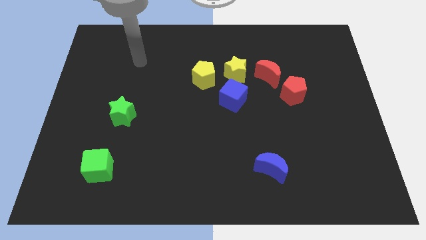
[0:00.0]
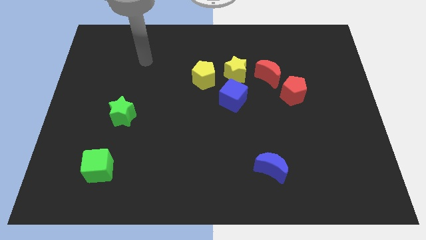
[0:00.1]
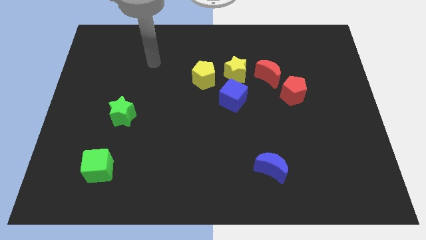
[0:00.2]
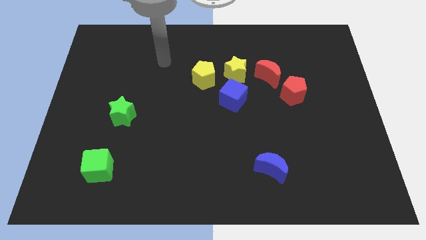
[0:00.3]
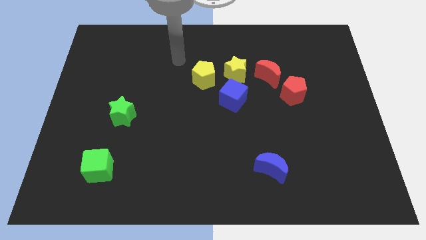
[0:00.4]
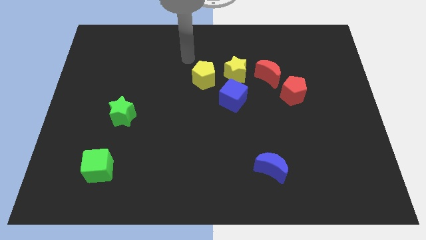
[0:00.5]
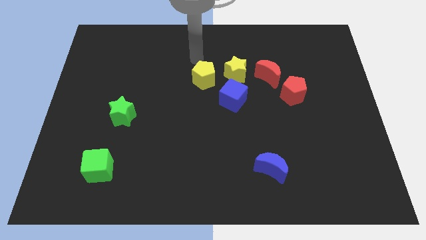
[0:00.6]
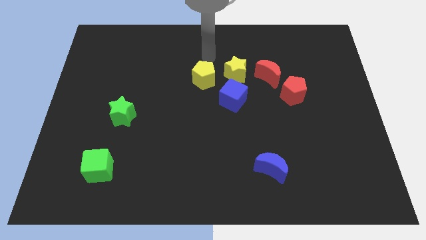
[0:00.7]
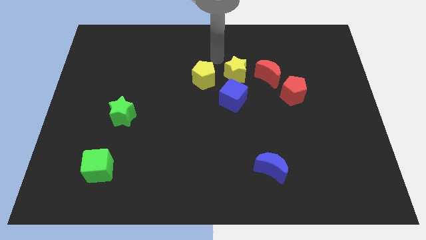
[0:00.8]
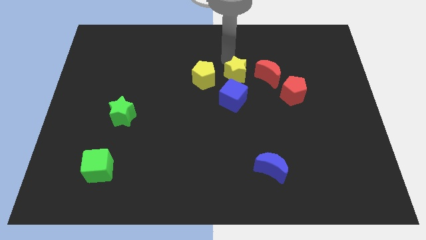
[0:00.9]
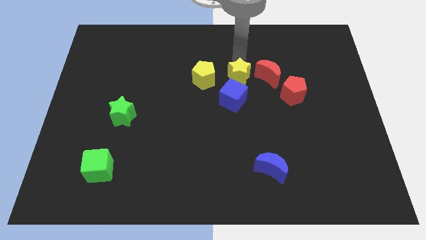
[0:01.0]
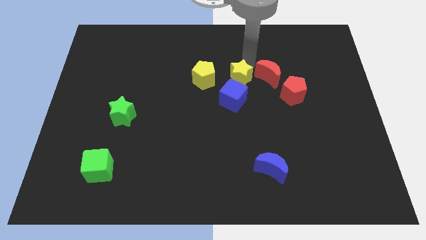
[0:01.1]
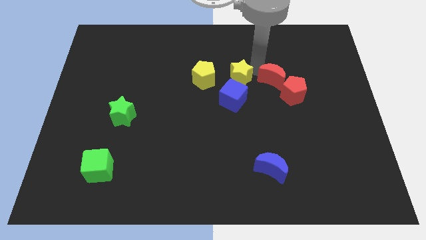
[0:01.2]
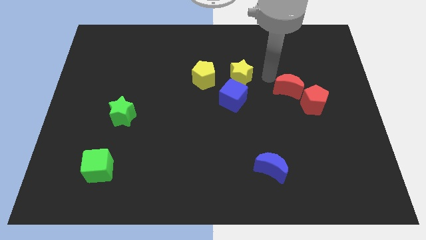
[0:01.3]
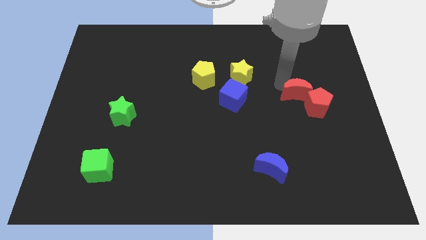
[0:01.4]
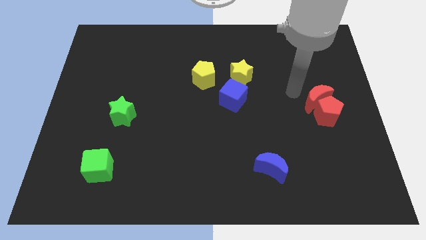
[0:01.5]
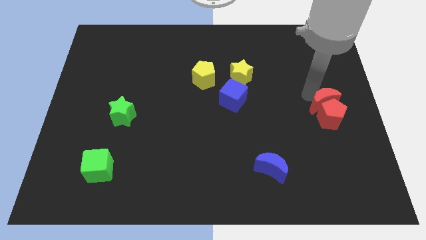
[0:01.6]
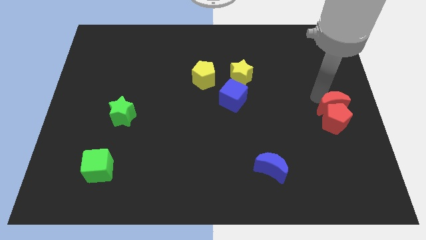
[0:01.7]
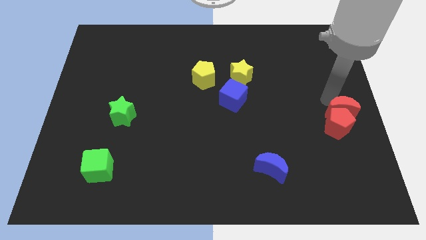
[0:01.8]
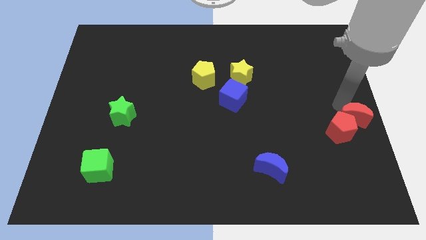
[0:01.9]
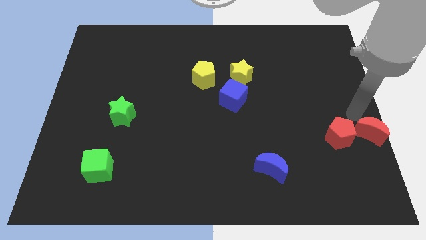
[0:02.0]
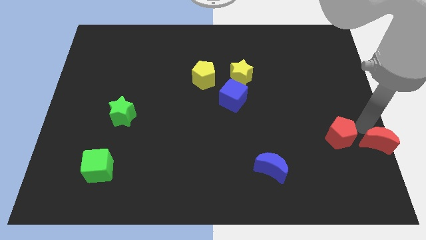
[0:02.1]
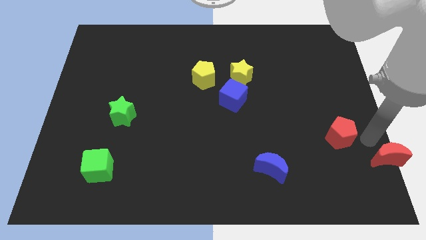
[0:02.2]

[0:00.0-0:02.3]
pull the red pentagon apart from the red moon

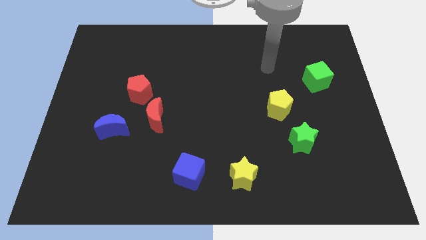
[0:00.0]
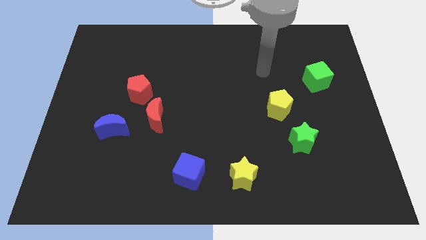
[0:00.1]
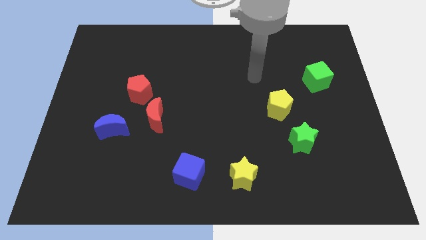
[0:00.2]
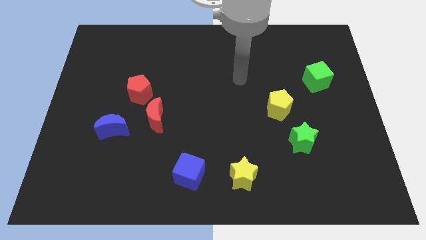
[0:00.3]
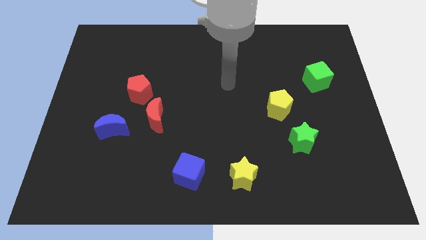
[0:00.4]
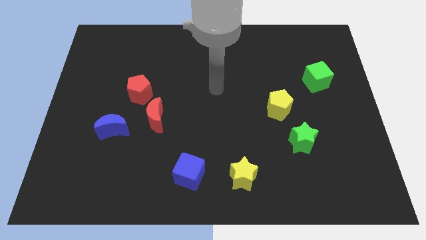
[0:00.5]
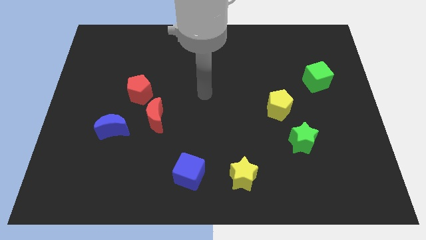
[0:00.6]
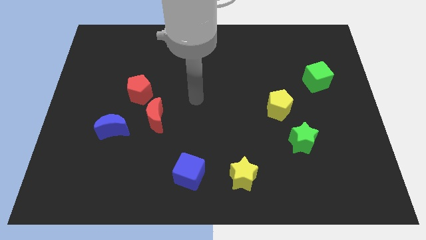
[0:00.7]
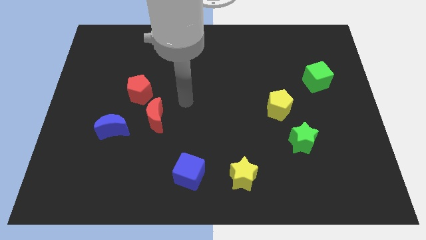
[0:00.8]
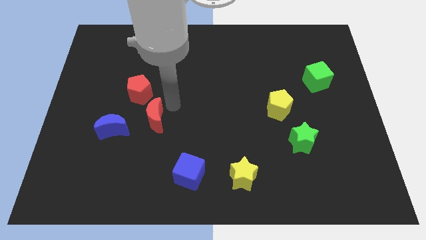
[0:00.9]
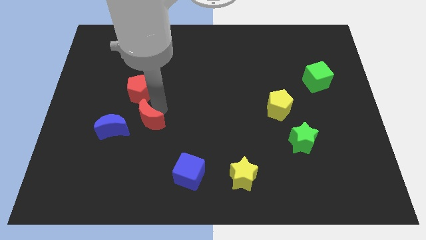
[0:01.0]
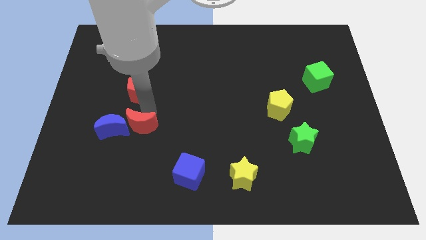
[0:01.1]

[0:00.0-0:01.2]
separate the red pentagon from the red moon

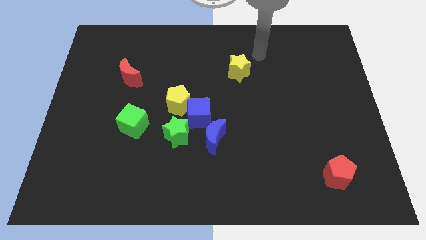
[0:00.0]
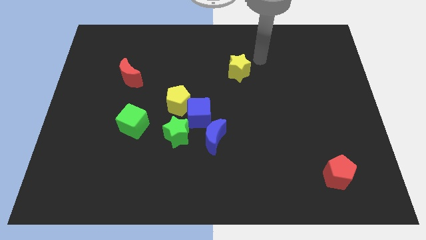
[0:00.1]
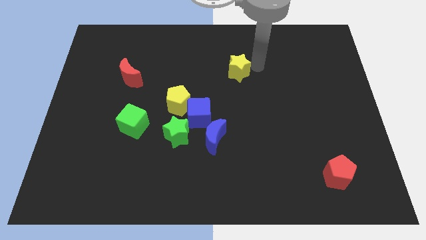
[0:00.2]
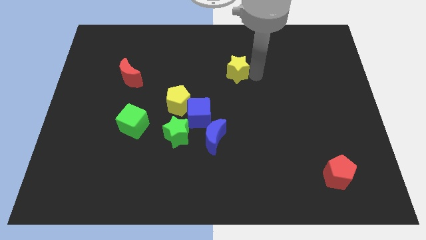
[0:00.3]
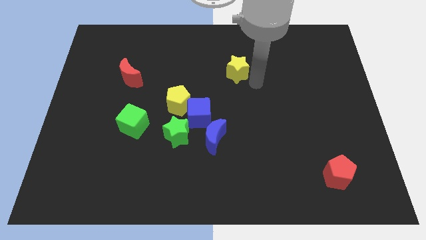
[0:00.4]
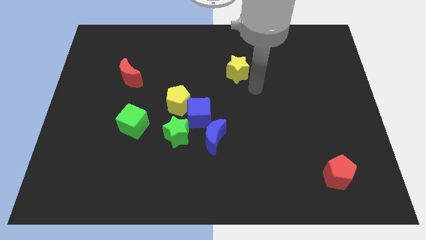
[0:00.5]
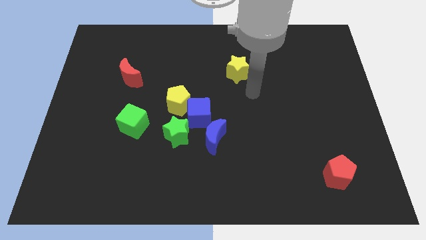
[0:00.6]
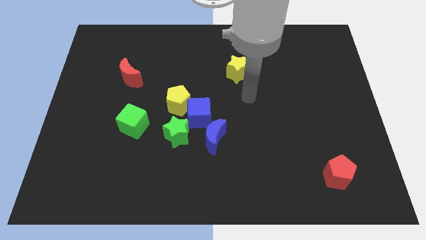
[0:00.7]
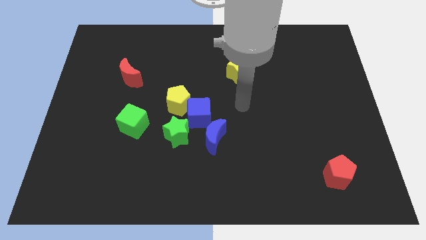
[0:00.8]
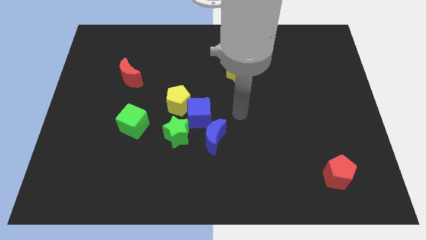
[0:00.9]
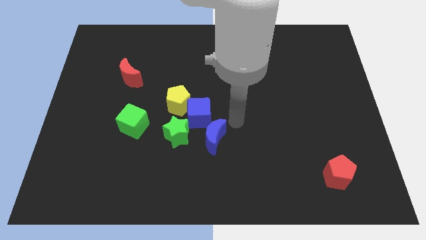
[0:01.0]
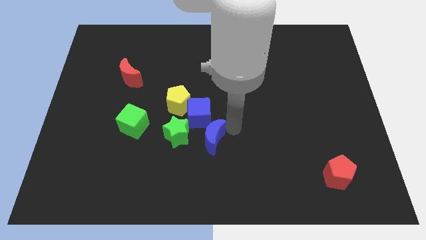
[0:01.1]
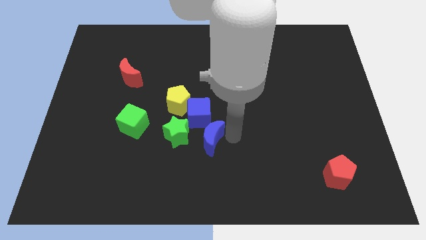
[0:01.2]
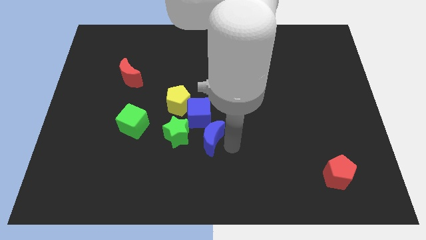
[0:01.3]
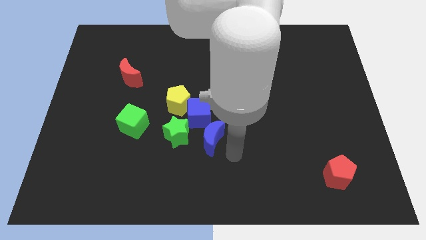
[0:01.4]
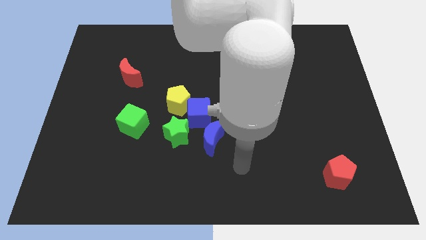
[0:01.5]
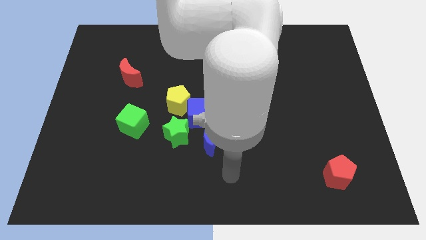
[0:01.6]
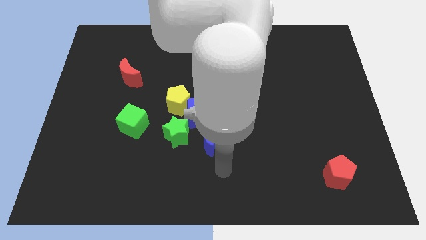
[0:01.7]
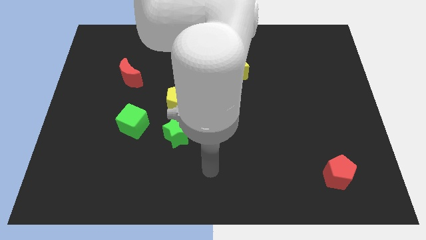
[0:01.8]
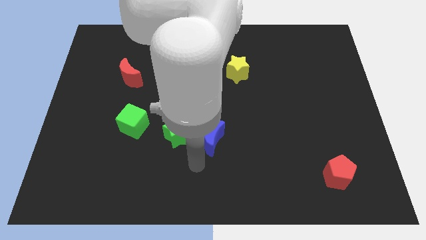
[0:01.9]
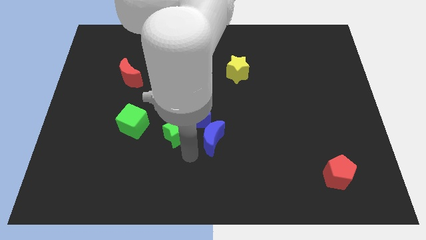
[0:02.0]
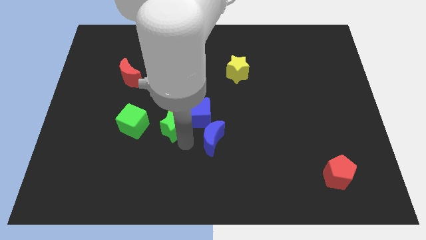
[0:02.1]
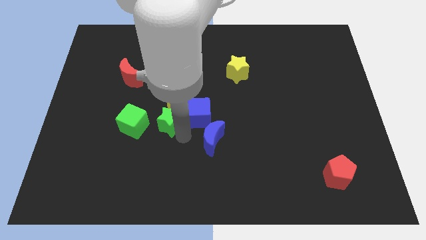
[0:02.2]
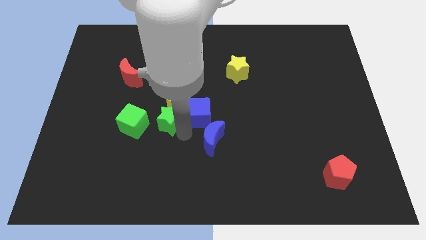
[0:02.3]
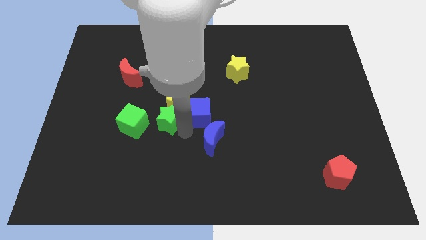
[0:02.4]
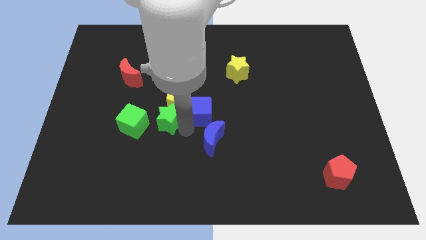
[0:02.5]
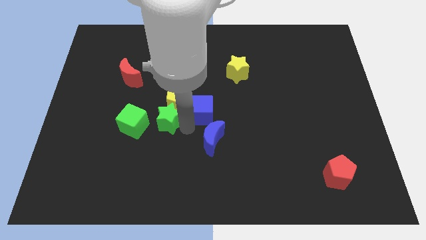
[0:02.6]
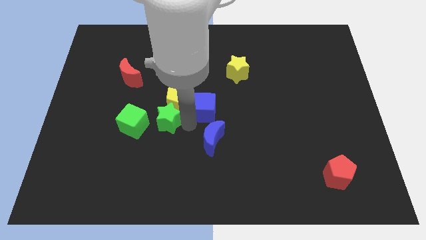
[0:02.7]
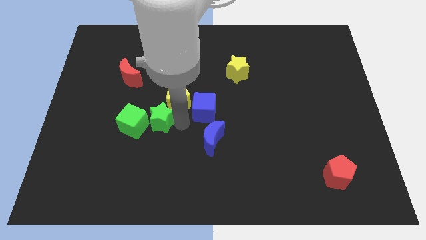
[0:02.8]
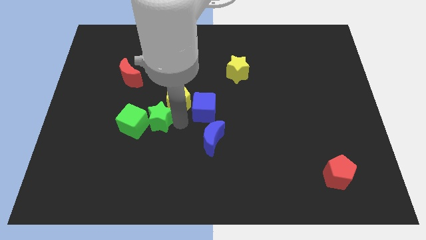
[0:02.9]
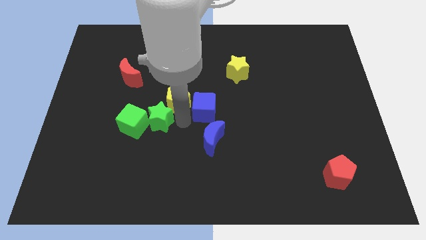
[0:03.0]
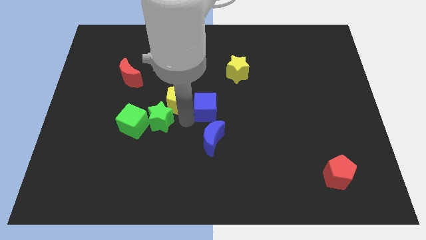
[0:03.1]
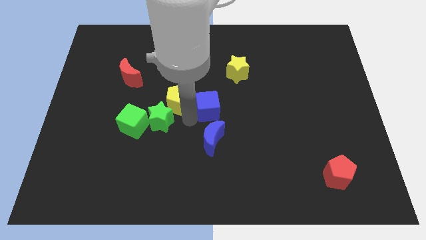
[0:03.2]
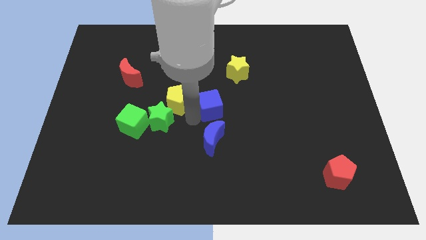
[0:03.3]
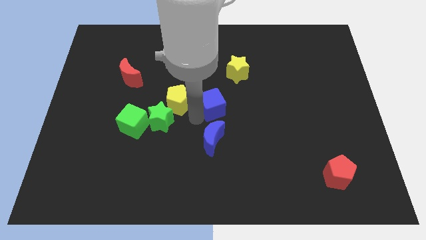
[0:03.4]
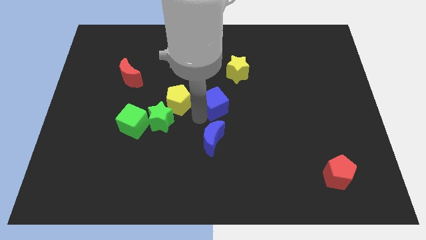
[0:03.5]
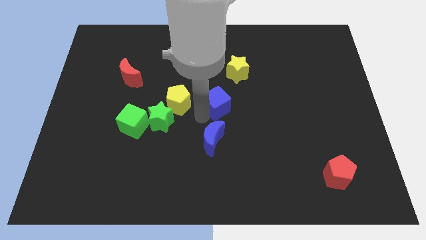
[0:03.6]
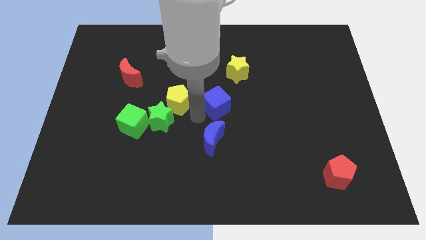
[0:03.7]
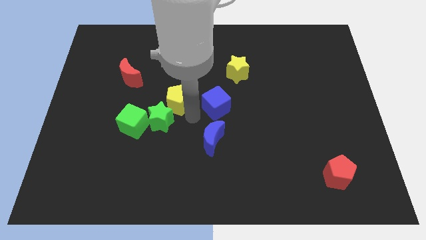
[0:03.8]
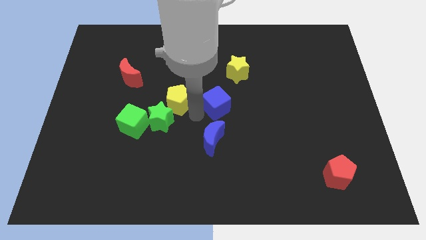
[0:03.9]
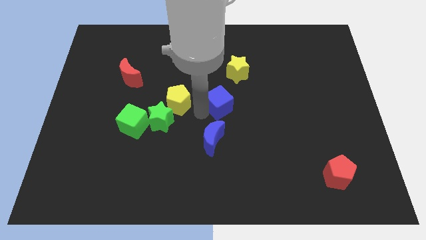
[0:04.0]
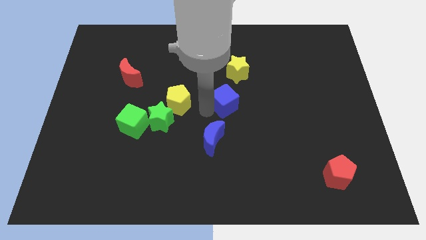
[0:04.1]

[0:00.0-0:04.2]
pull the blue cube apart from the group

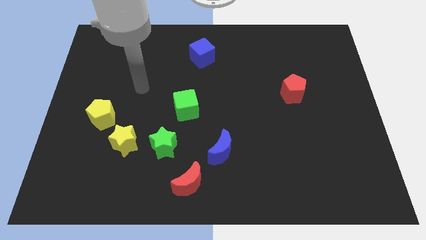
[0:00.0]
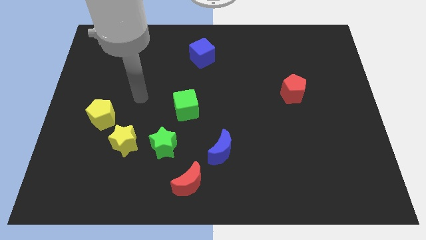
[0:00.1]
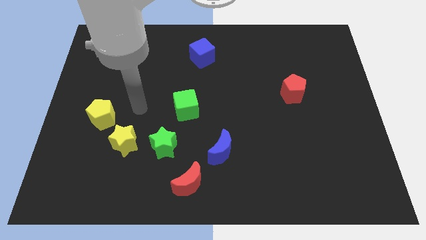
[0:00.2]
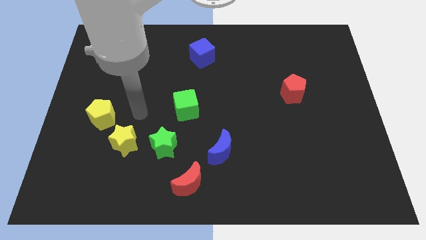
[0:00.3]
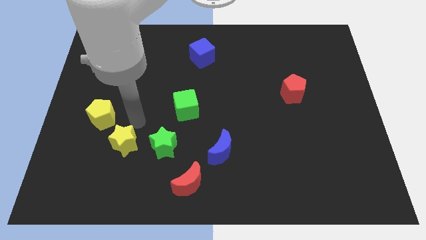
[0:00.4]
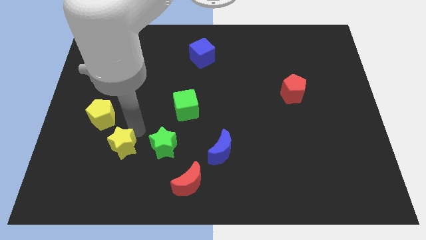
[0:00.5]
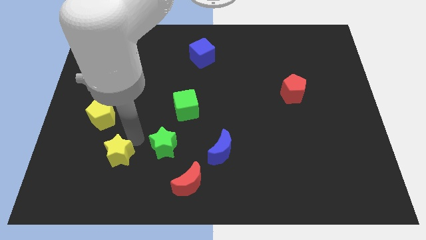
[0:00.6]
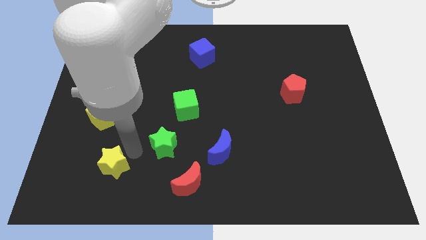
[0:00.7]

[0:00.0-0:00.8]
pull the green star apart from the yellow star

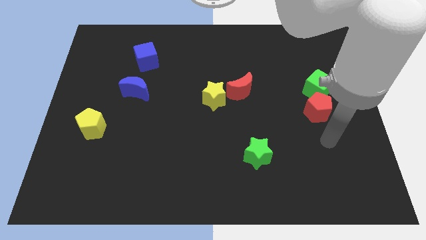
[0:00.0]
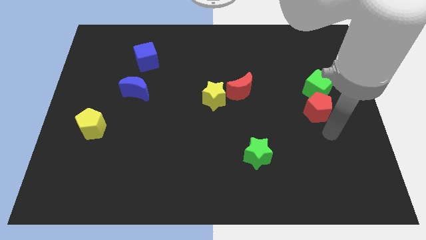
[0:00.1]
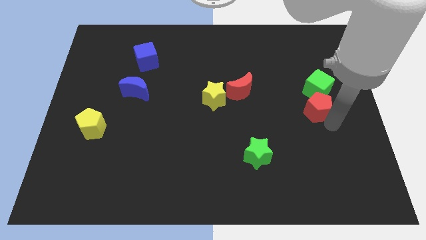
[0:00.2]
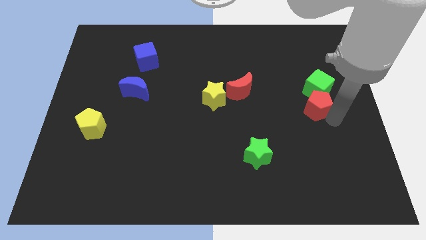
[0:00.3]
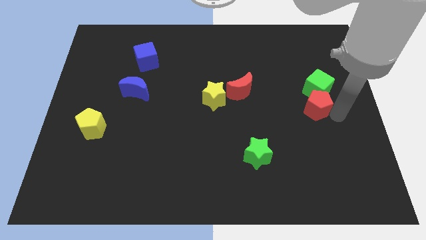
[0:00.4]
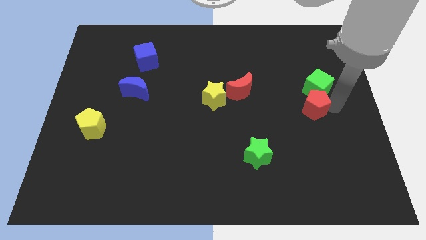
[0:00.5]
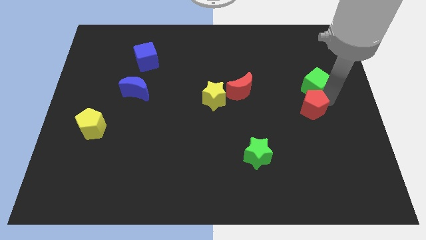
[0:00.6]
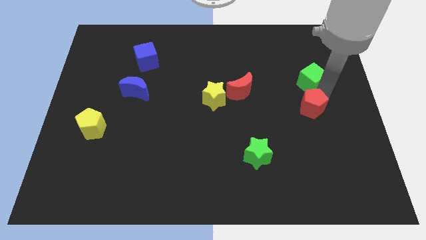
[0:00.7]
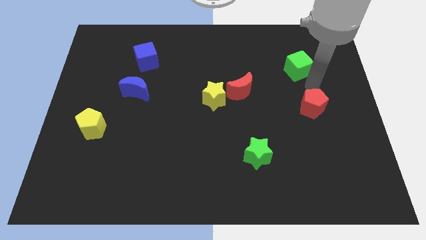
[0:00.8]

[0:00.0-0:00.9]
pull the red pentagon apart from the green cube
